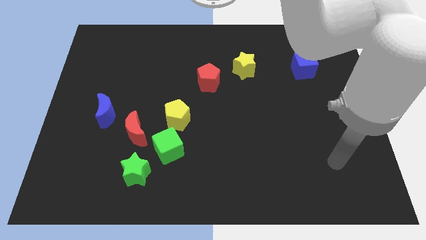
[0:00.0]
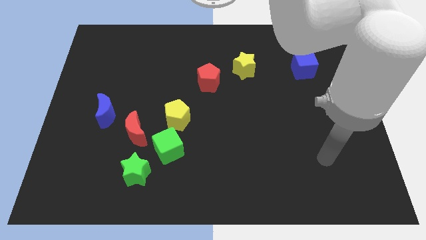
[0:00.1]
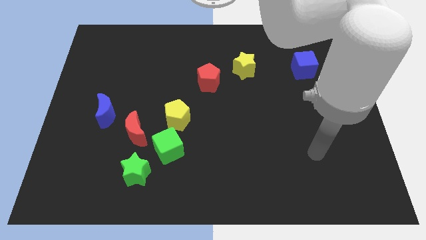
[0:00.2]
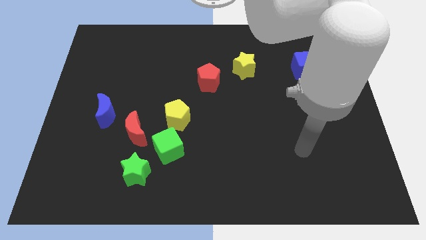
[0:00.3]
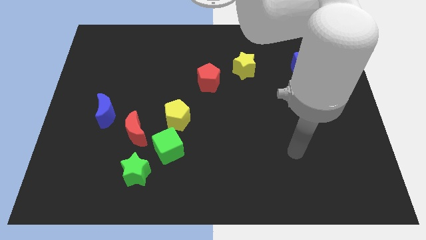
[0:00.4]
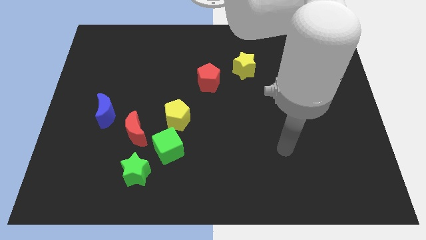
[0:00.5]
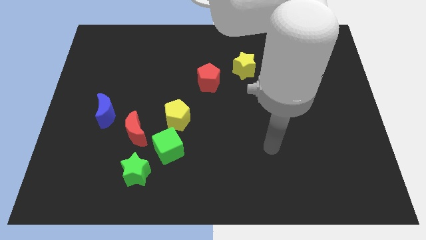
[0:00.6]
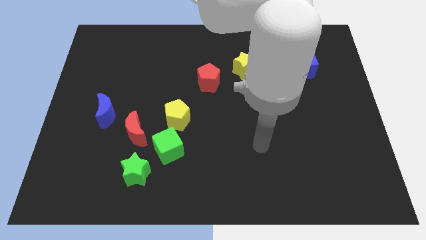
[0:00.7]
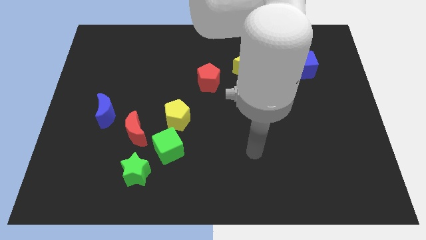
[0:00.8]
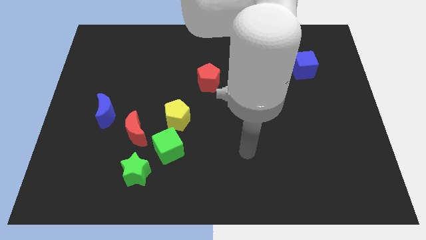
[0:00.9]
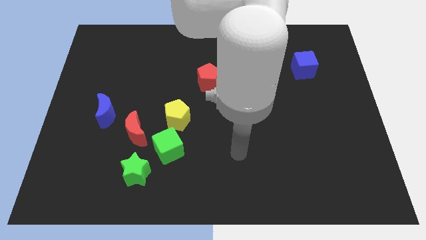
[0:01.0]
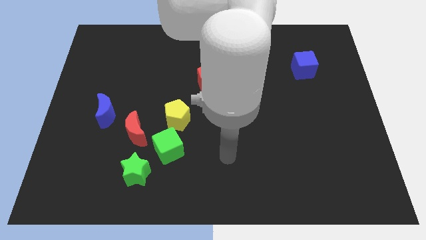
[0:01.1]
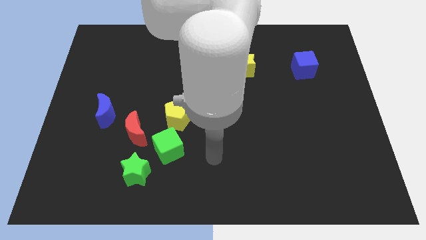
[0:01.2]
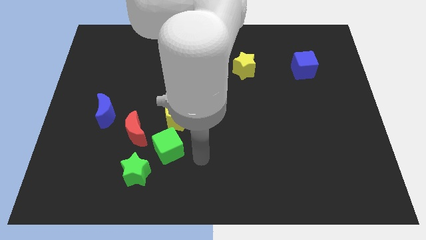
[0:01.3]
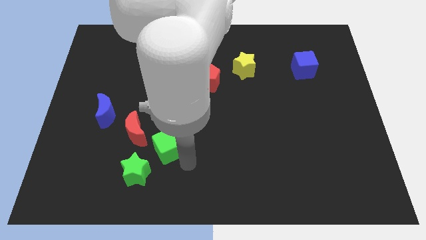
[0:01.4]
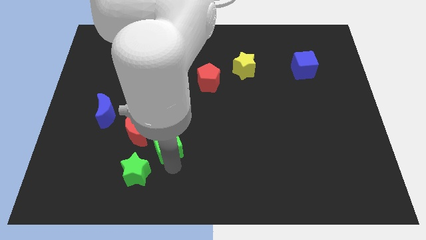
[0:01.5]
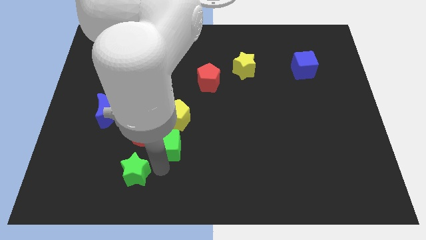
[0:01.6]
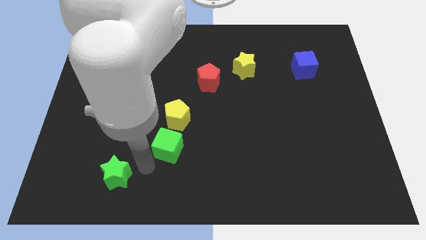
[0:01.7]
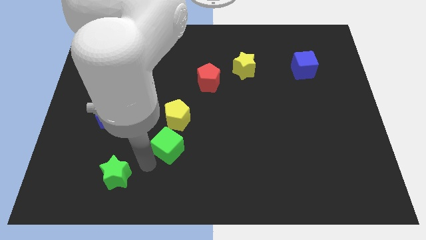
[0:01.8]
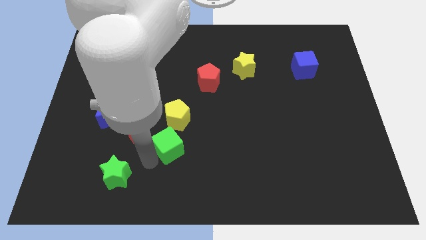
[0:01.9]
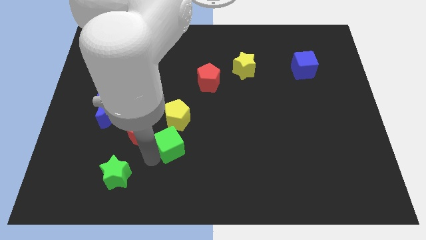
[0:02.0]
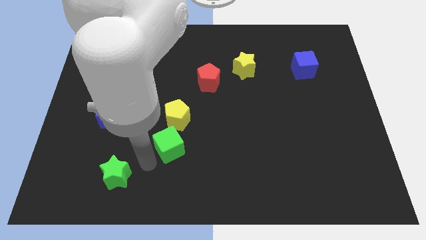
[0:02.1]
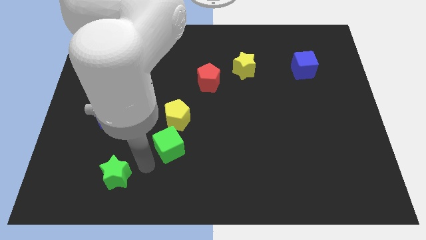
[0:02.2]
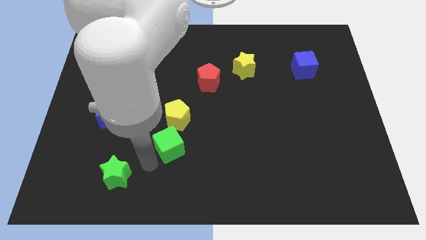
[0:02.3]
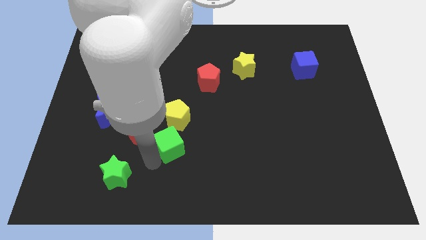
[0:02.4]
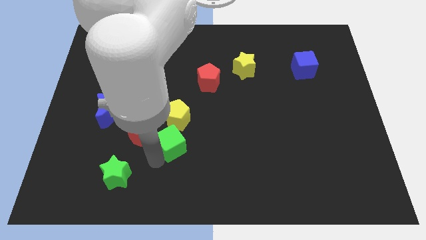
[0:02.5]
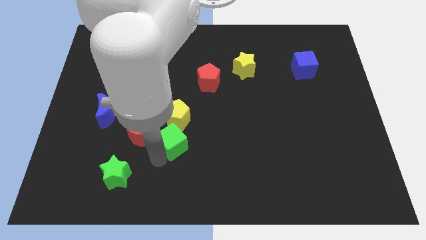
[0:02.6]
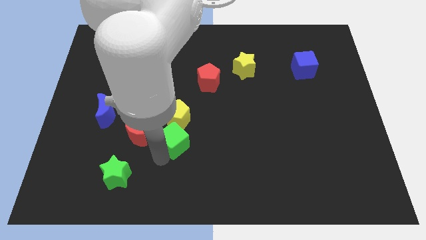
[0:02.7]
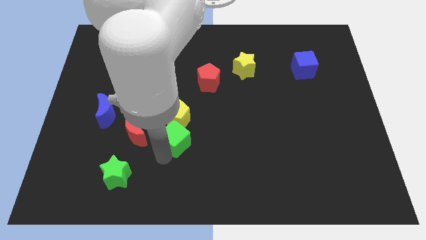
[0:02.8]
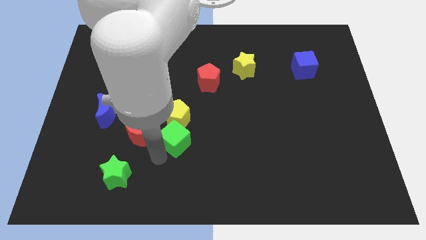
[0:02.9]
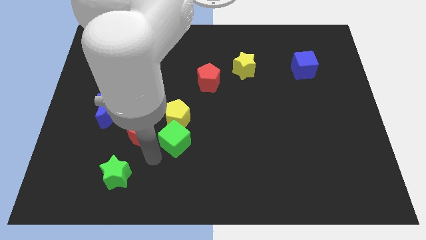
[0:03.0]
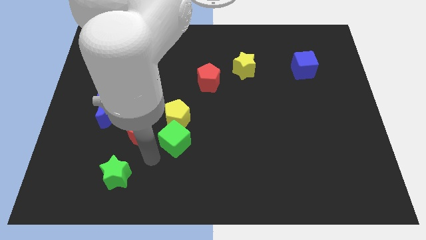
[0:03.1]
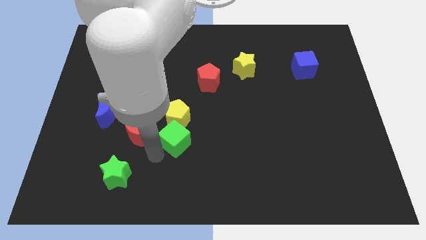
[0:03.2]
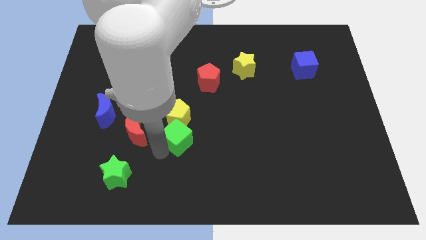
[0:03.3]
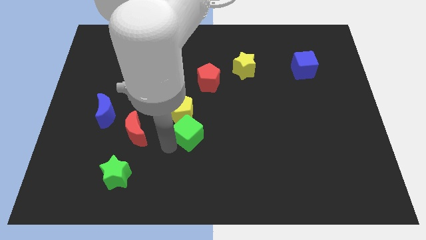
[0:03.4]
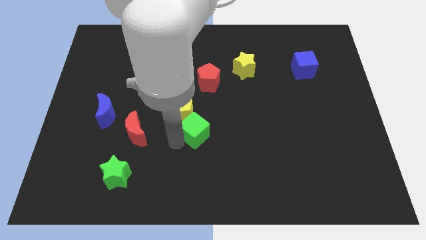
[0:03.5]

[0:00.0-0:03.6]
slightly push the green cube up and right diagonally

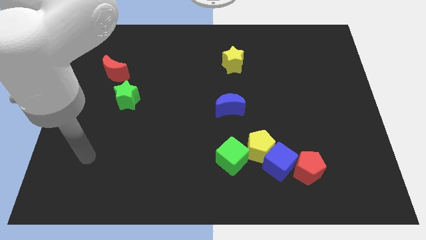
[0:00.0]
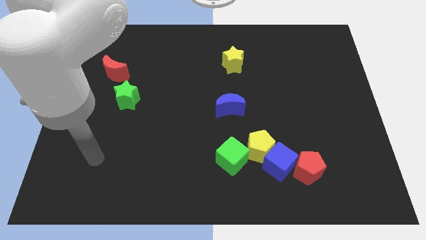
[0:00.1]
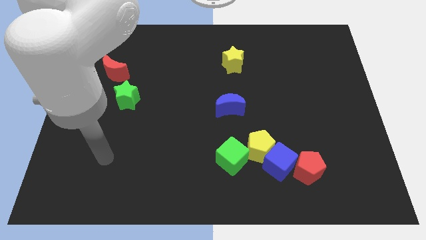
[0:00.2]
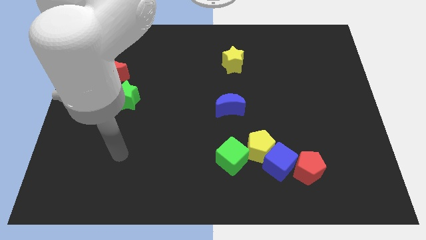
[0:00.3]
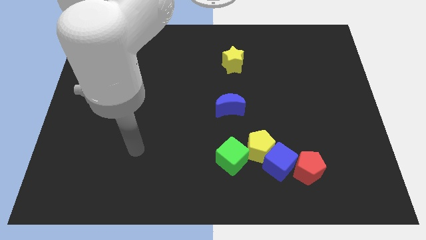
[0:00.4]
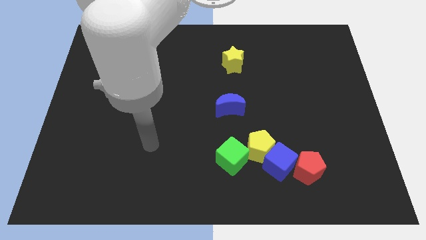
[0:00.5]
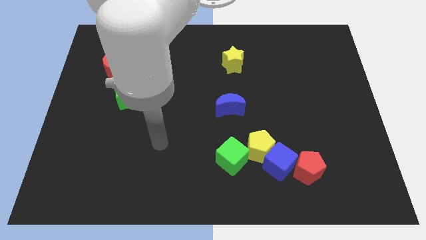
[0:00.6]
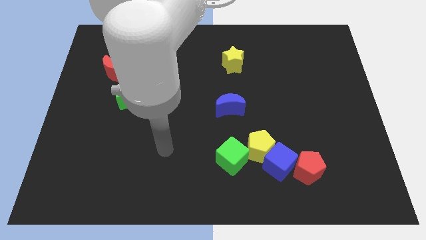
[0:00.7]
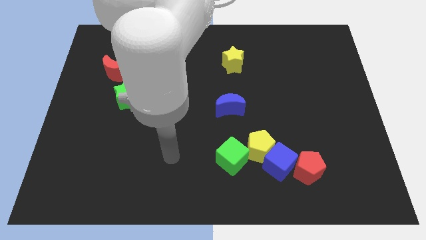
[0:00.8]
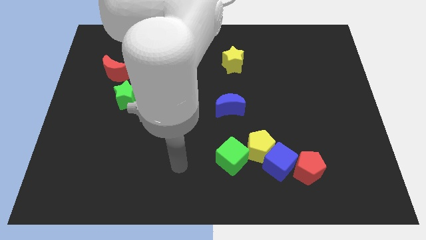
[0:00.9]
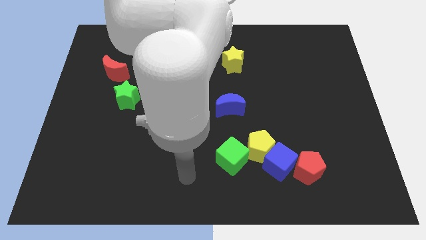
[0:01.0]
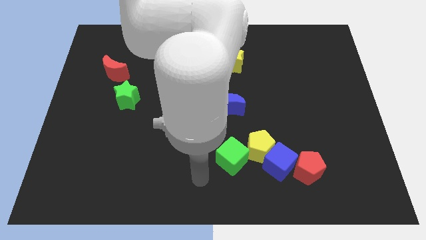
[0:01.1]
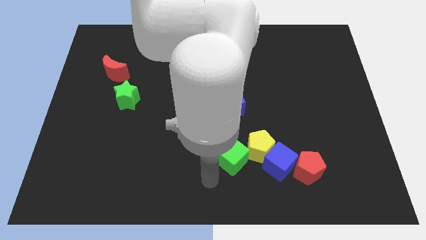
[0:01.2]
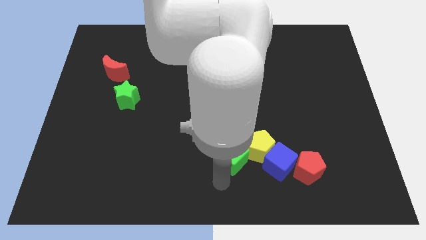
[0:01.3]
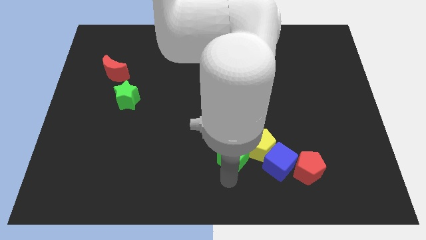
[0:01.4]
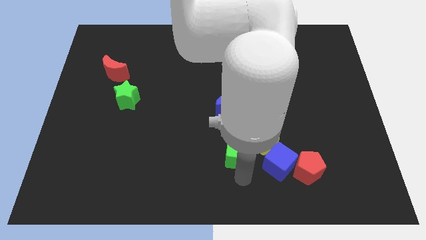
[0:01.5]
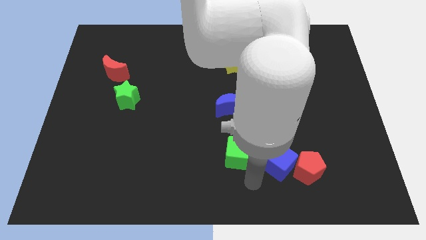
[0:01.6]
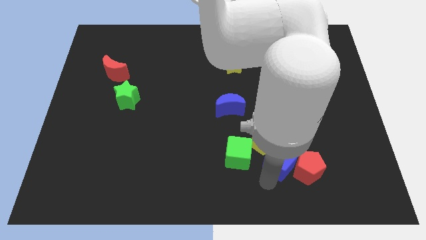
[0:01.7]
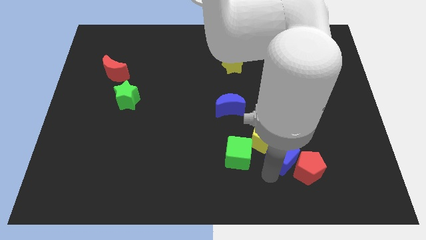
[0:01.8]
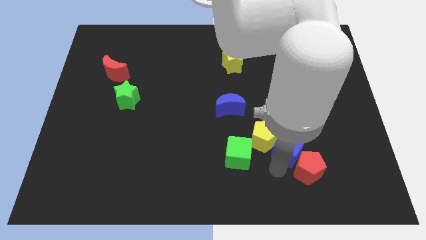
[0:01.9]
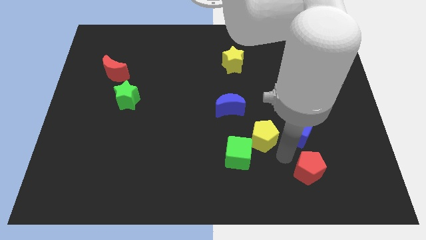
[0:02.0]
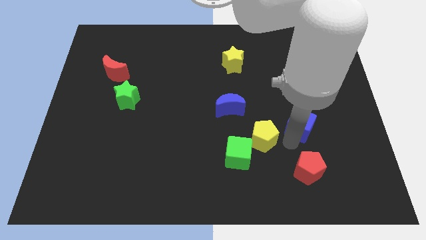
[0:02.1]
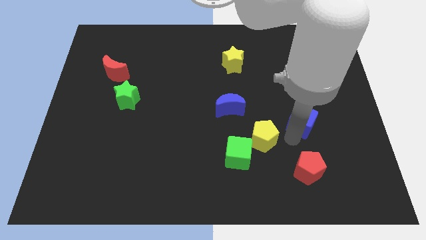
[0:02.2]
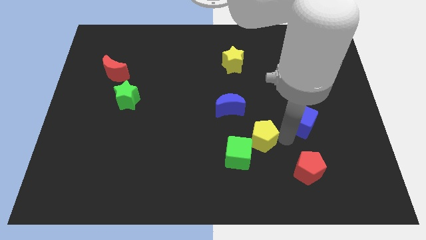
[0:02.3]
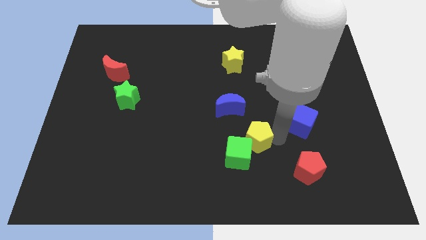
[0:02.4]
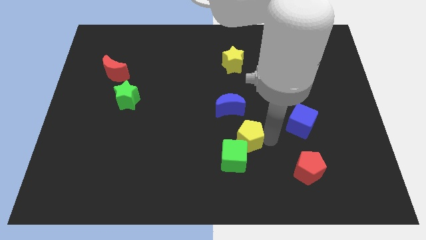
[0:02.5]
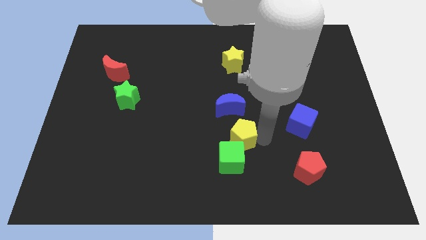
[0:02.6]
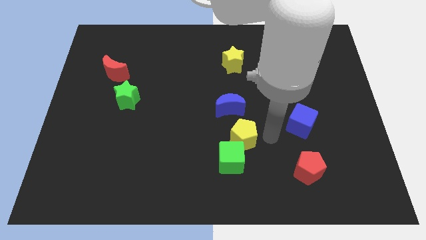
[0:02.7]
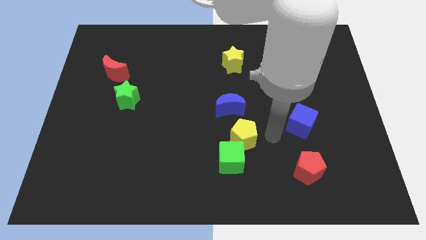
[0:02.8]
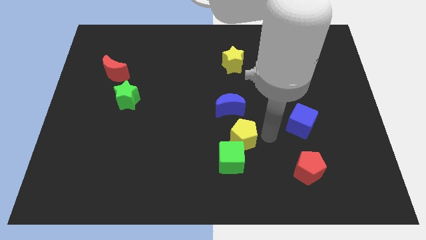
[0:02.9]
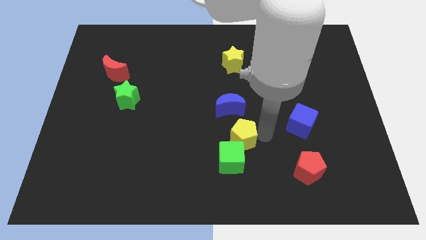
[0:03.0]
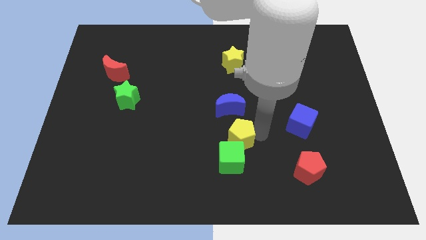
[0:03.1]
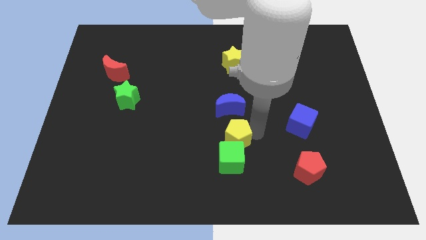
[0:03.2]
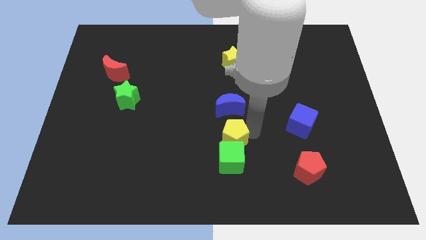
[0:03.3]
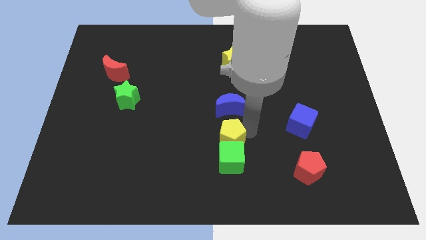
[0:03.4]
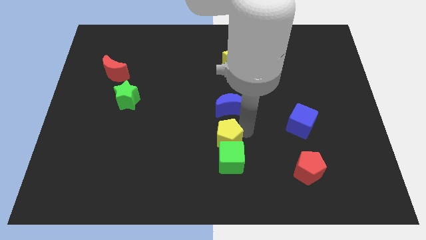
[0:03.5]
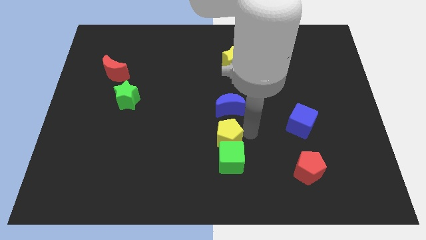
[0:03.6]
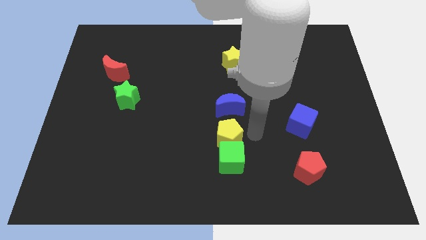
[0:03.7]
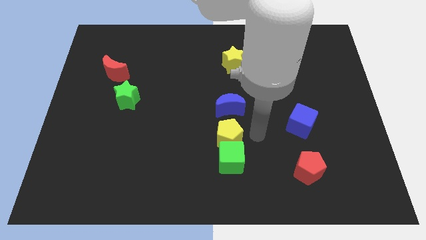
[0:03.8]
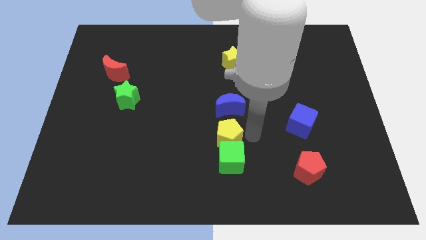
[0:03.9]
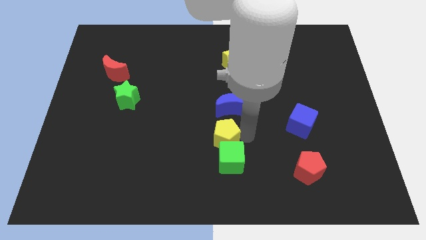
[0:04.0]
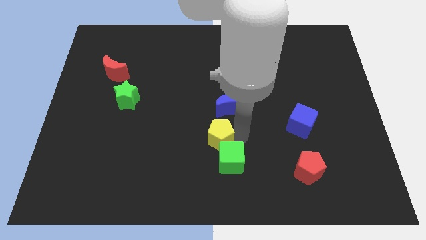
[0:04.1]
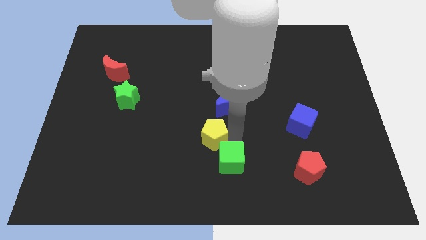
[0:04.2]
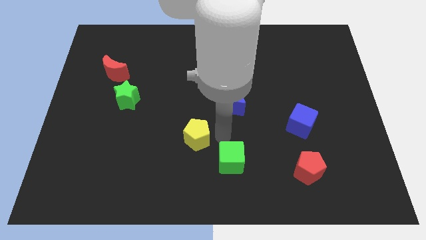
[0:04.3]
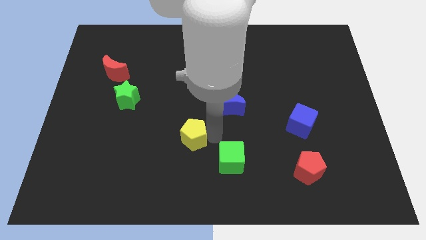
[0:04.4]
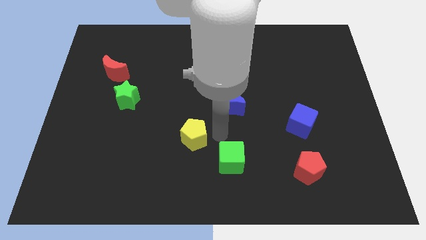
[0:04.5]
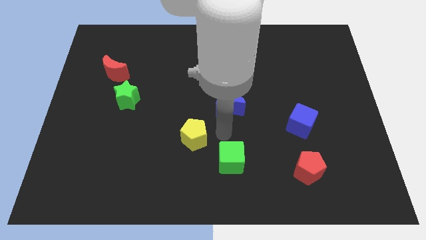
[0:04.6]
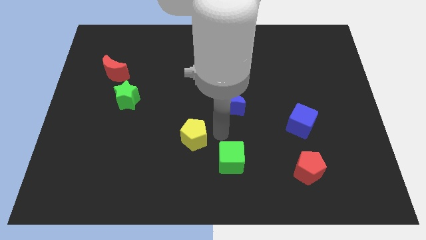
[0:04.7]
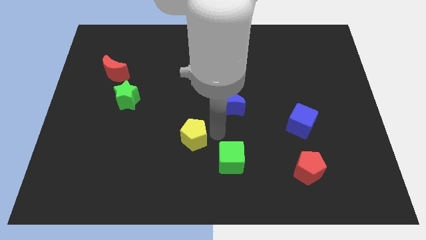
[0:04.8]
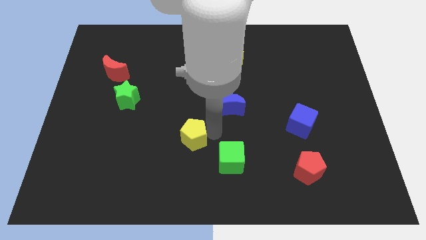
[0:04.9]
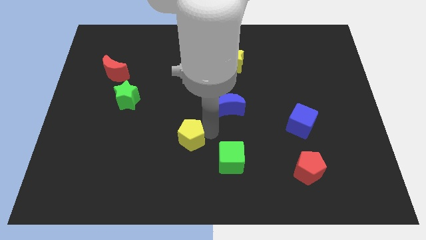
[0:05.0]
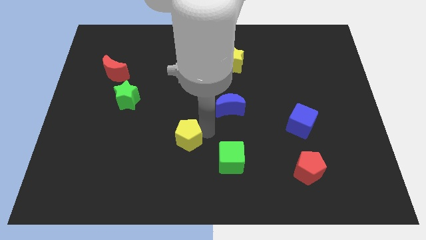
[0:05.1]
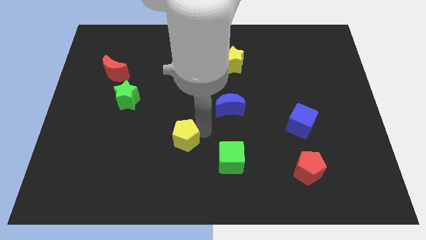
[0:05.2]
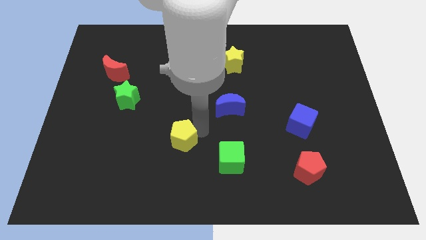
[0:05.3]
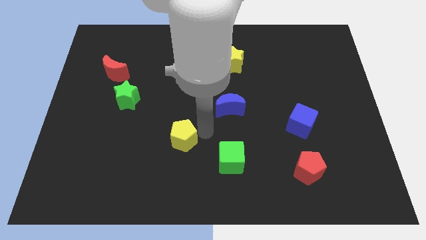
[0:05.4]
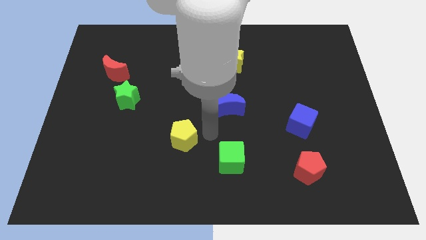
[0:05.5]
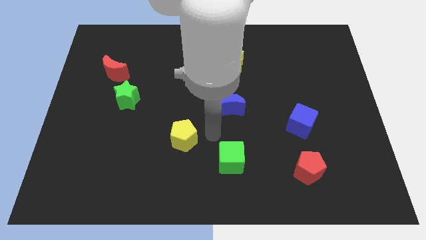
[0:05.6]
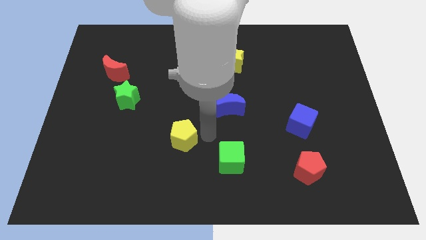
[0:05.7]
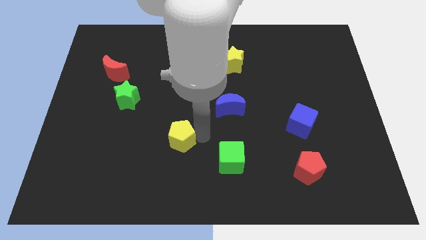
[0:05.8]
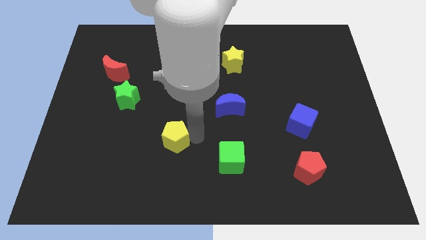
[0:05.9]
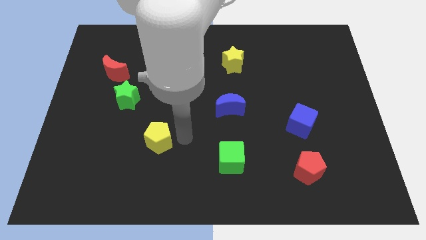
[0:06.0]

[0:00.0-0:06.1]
push the yellow pentagon to the left
